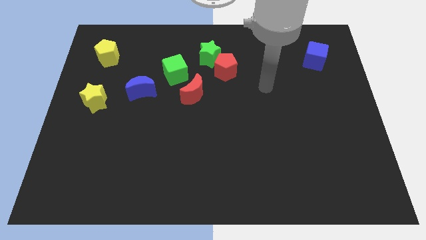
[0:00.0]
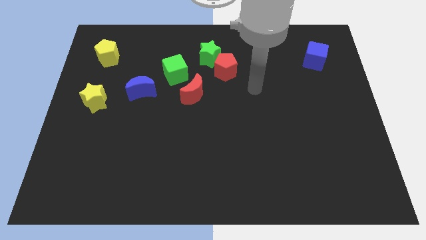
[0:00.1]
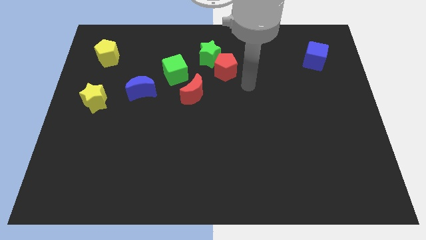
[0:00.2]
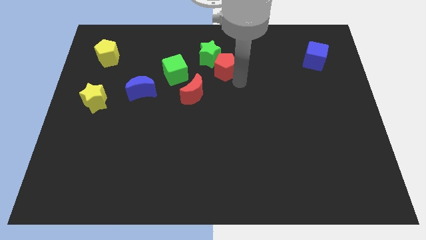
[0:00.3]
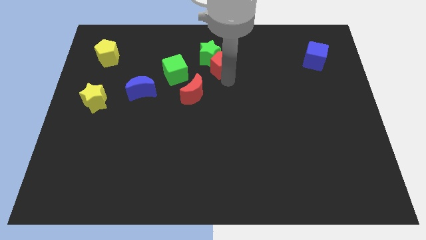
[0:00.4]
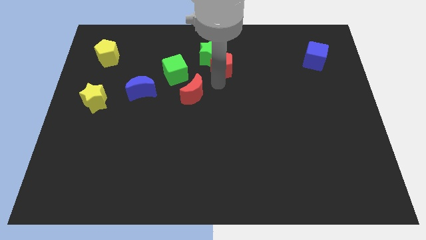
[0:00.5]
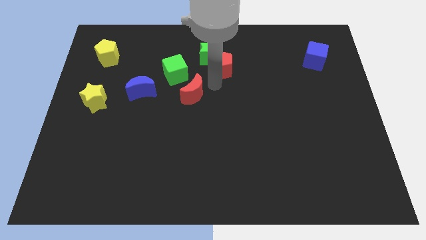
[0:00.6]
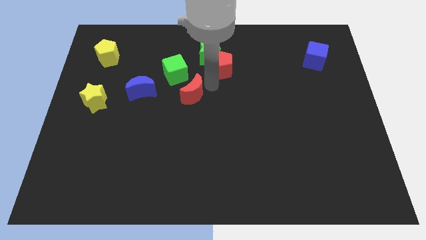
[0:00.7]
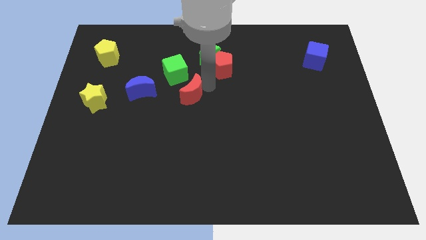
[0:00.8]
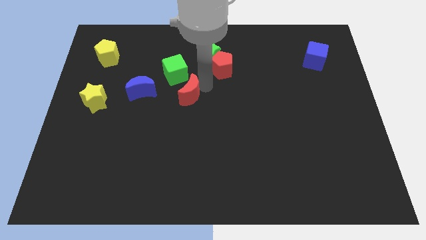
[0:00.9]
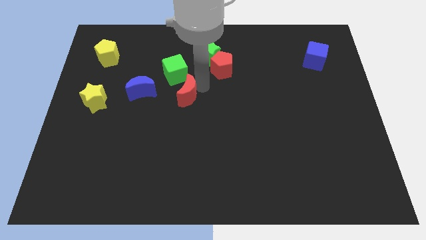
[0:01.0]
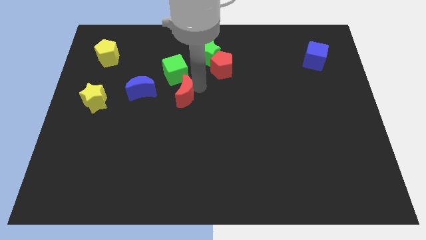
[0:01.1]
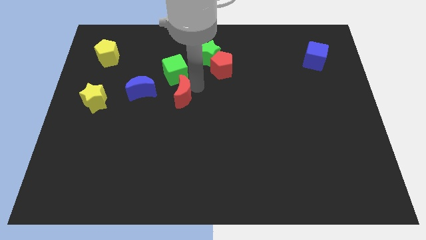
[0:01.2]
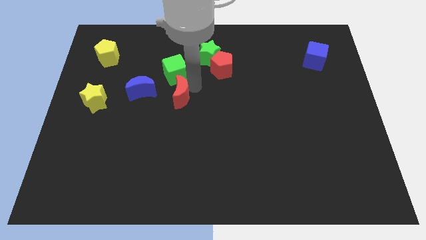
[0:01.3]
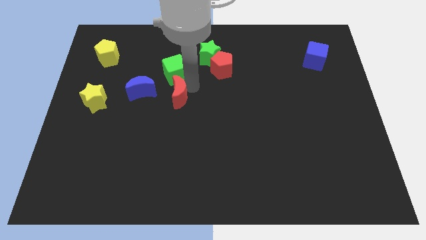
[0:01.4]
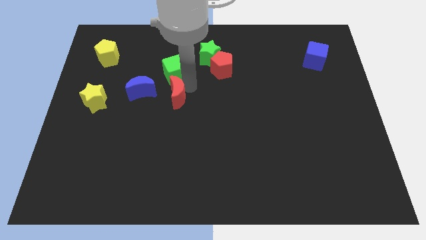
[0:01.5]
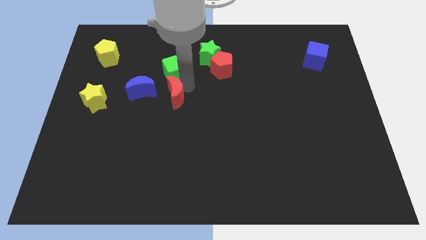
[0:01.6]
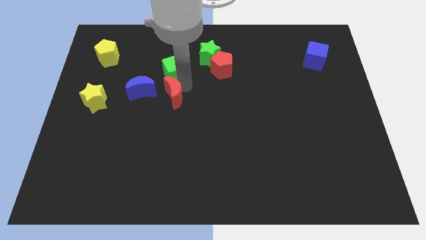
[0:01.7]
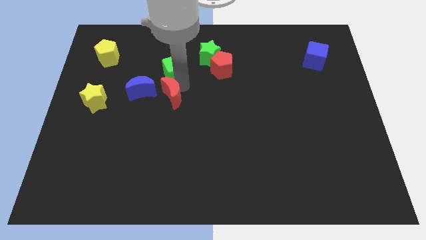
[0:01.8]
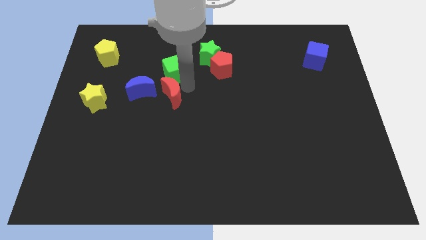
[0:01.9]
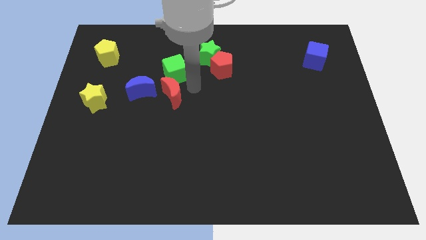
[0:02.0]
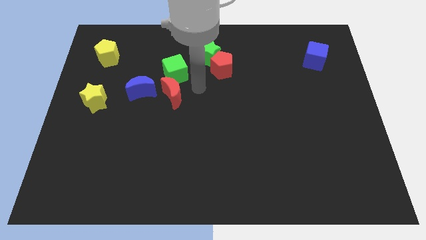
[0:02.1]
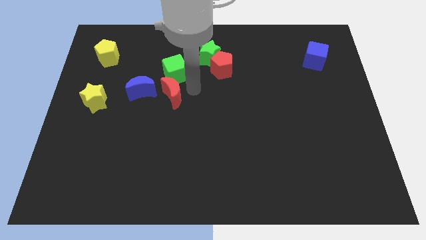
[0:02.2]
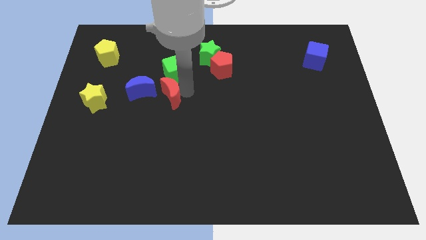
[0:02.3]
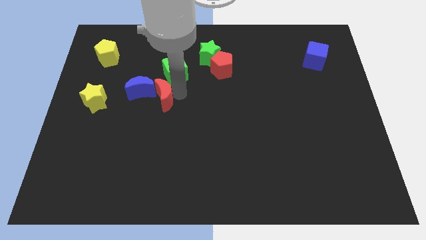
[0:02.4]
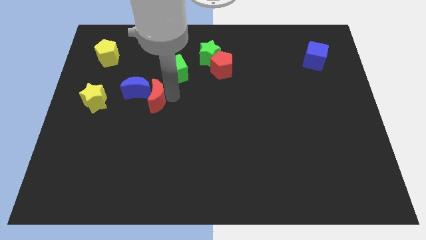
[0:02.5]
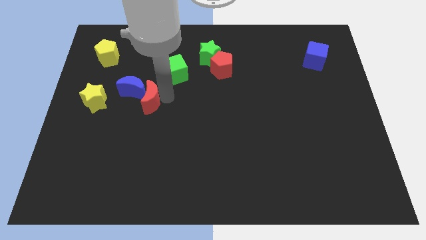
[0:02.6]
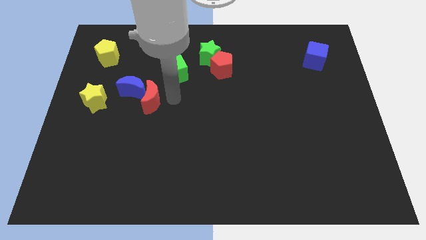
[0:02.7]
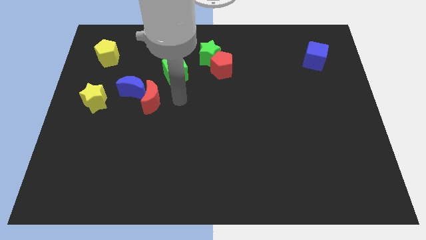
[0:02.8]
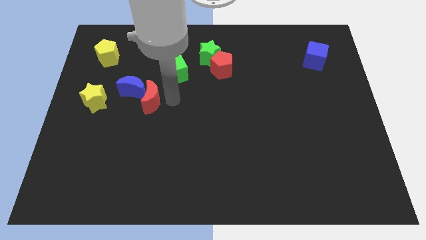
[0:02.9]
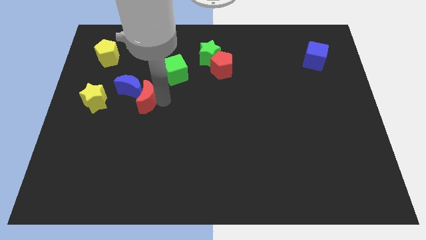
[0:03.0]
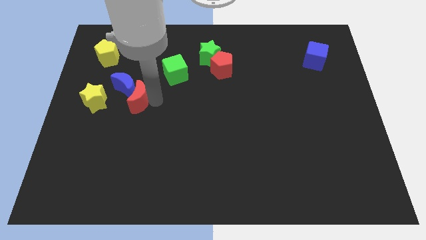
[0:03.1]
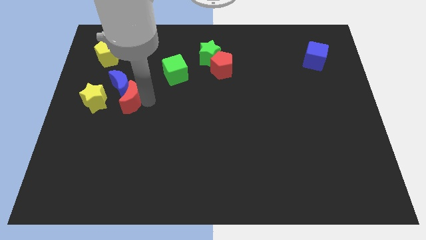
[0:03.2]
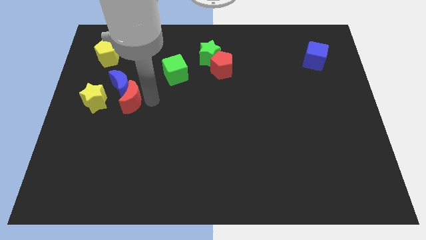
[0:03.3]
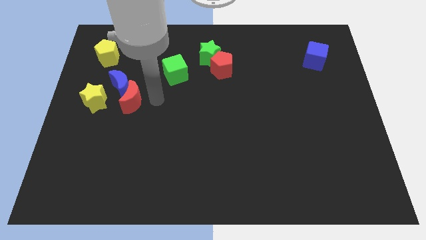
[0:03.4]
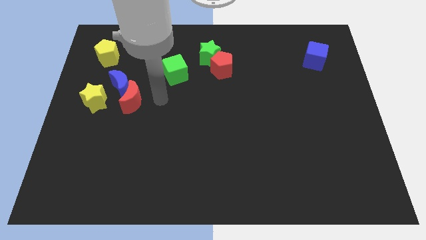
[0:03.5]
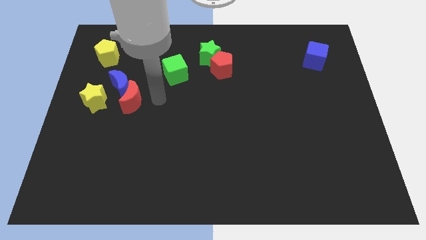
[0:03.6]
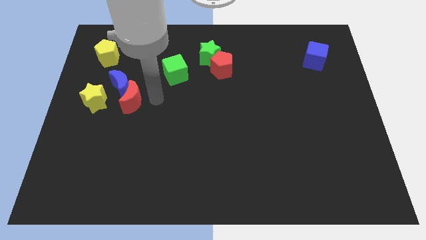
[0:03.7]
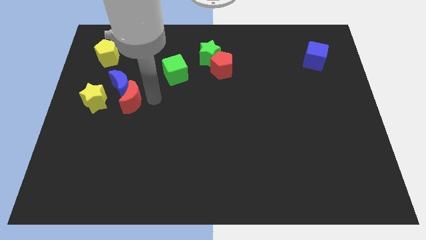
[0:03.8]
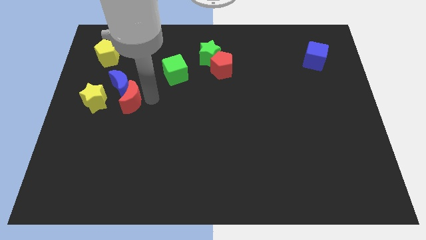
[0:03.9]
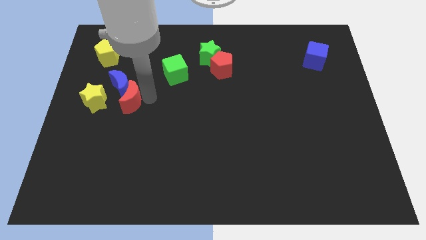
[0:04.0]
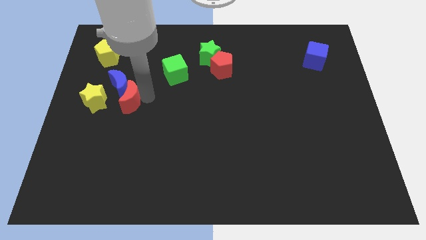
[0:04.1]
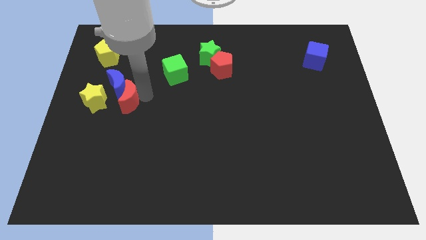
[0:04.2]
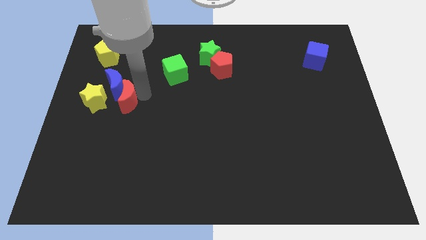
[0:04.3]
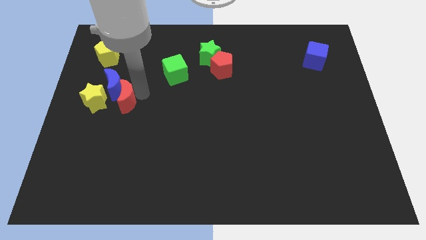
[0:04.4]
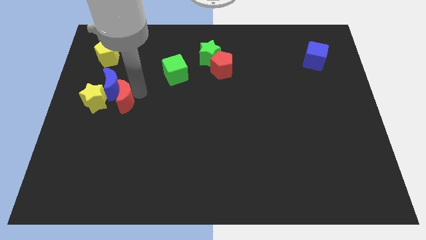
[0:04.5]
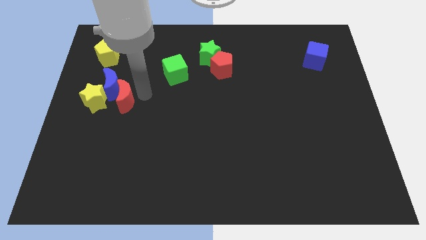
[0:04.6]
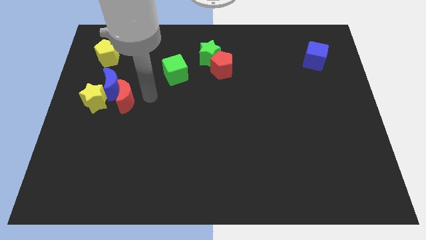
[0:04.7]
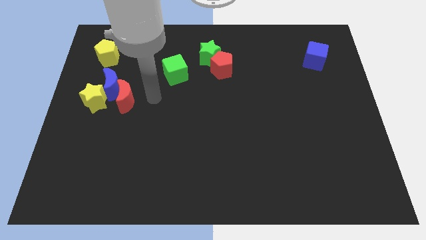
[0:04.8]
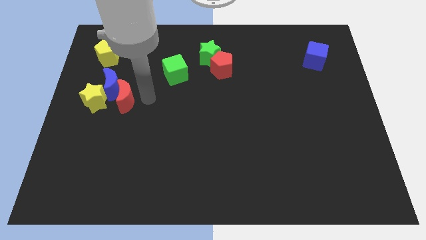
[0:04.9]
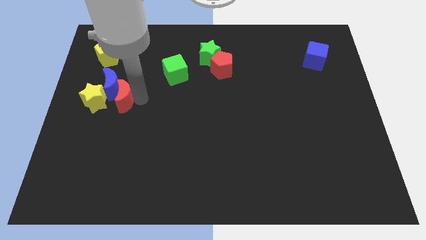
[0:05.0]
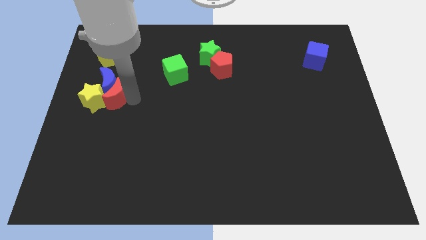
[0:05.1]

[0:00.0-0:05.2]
slide the red moon close to the yellow star

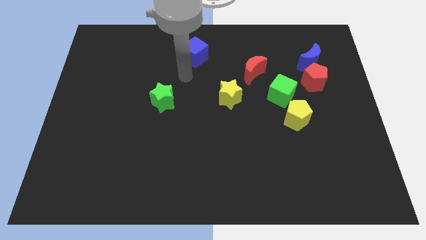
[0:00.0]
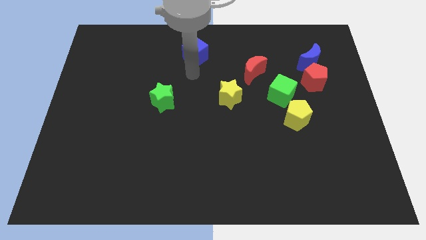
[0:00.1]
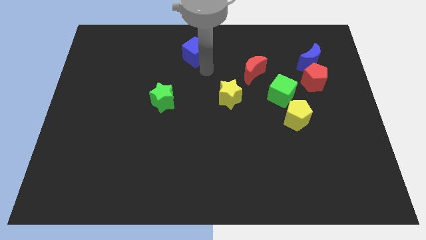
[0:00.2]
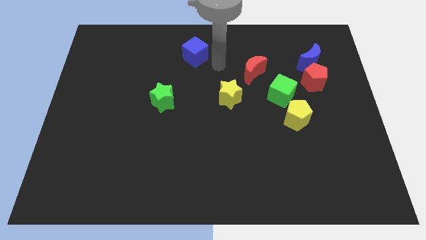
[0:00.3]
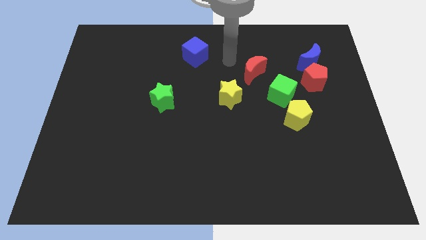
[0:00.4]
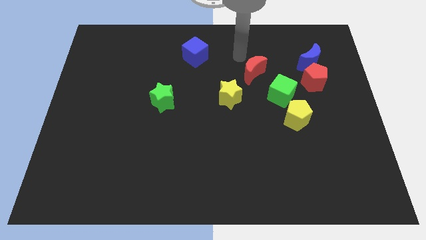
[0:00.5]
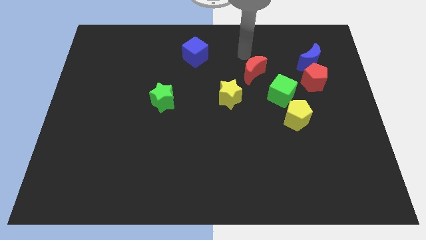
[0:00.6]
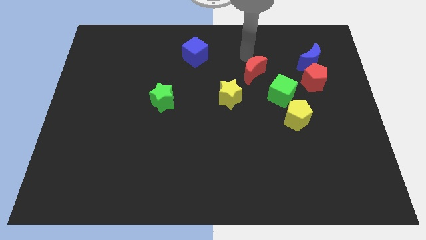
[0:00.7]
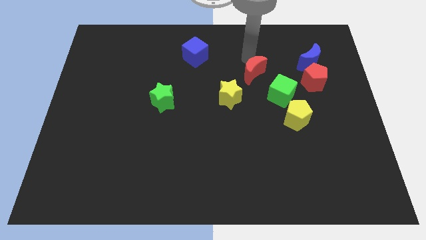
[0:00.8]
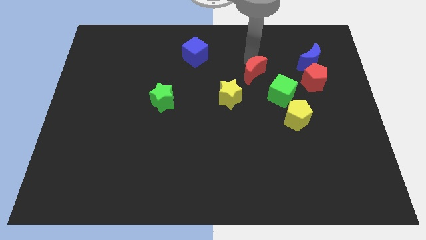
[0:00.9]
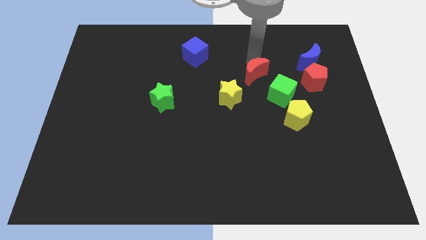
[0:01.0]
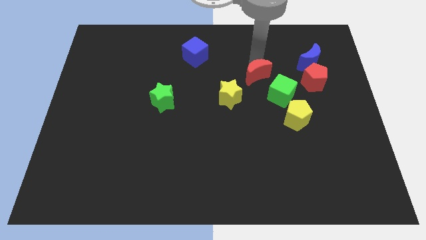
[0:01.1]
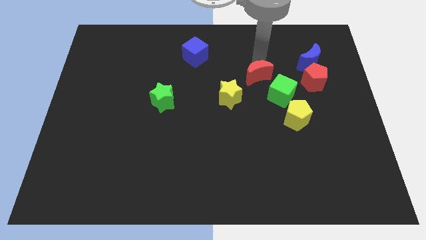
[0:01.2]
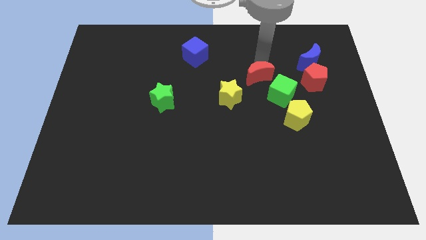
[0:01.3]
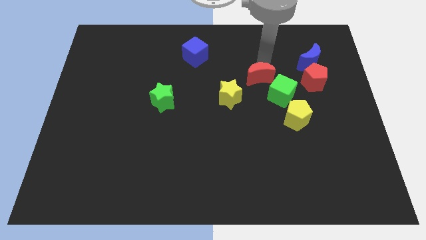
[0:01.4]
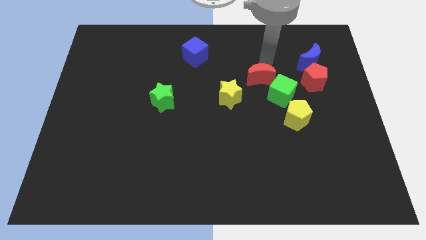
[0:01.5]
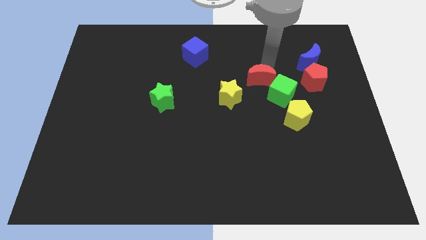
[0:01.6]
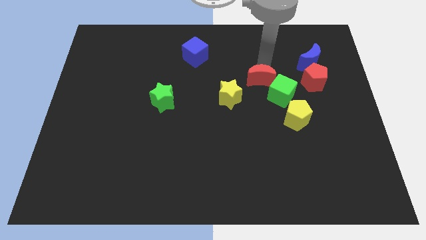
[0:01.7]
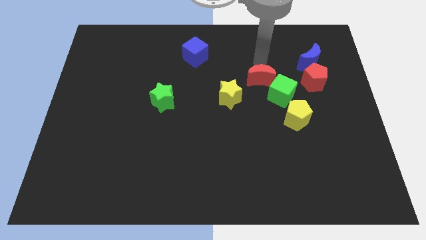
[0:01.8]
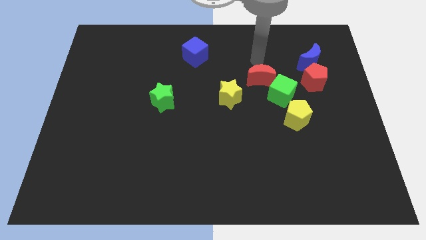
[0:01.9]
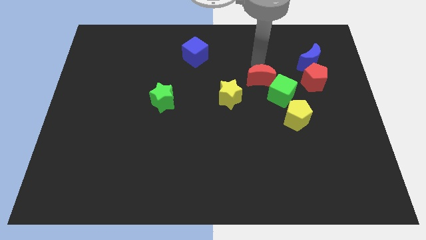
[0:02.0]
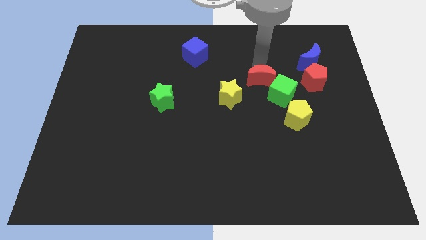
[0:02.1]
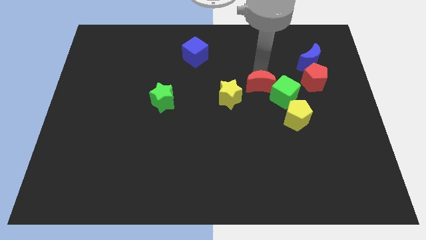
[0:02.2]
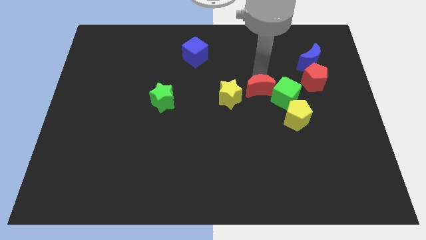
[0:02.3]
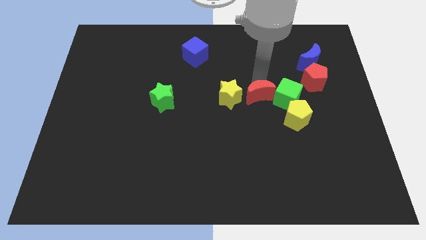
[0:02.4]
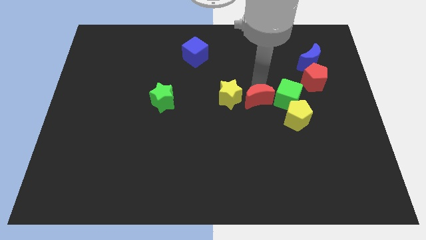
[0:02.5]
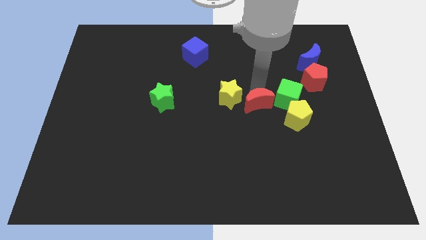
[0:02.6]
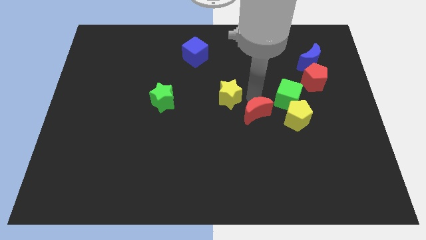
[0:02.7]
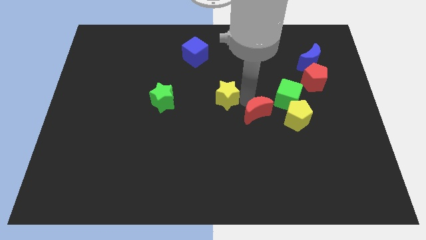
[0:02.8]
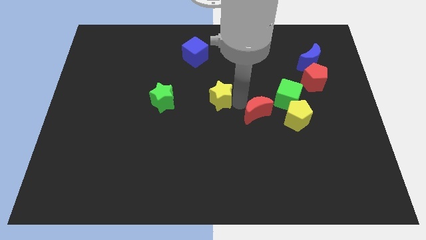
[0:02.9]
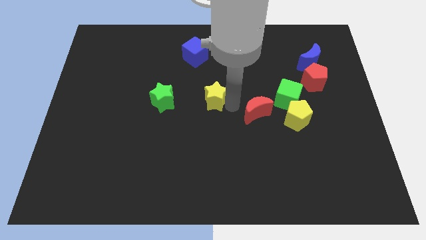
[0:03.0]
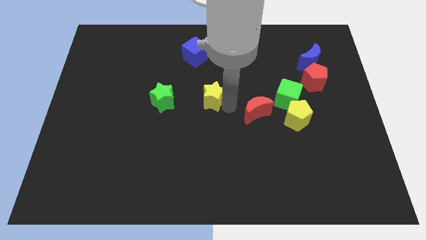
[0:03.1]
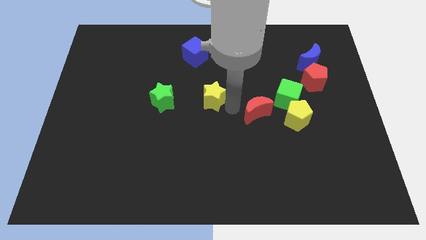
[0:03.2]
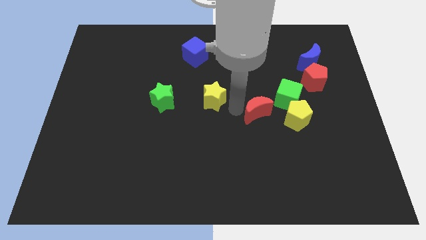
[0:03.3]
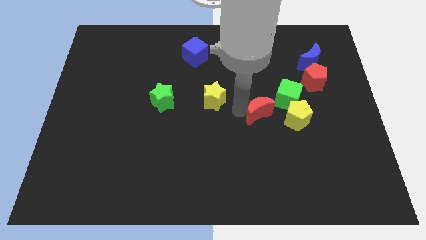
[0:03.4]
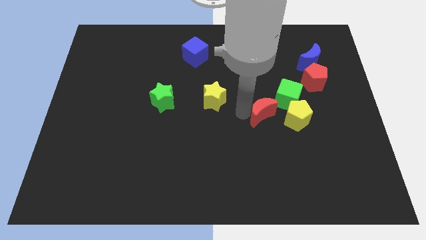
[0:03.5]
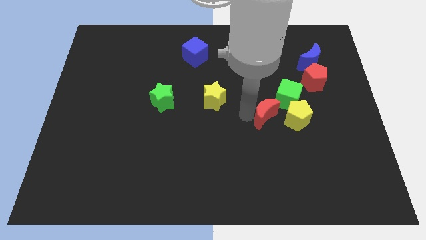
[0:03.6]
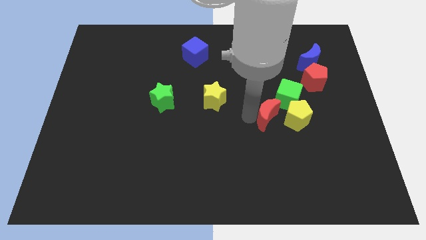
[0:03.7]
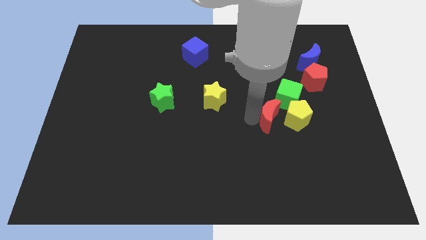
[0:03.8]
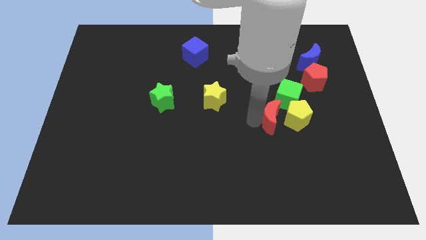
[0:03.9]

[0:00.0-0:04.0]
put the red moon to the yellow pentagon
